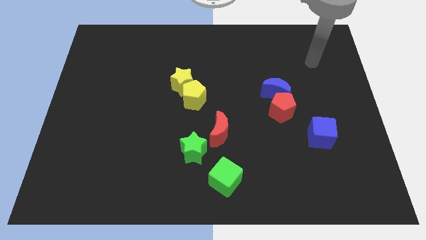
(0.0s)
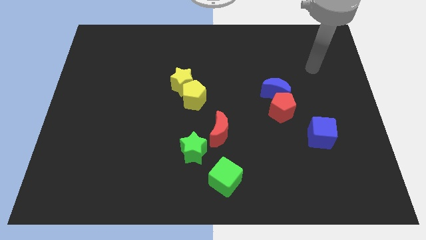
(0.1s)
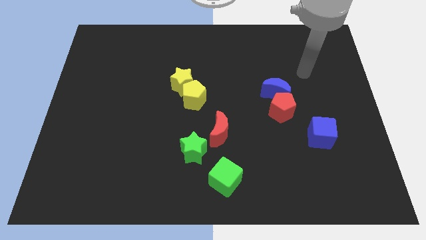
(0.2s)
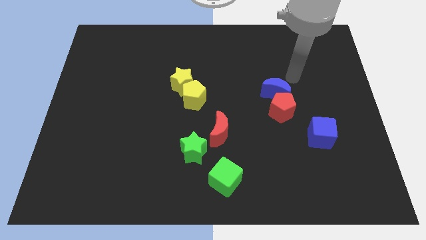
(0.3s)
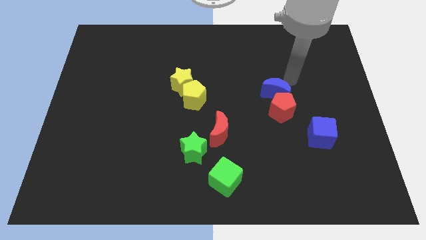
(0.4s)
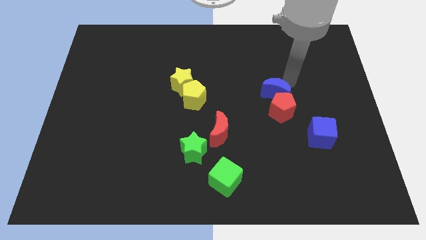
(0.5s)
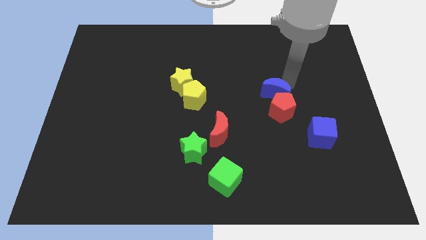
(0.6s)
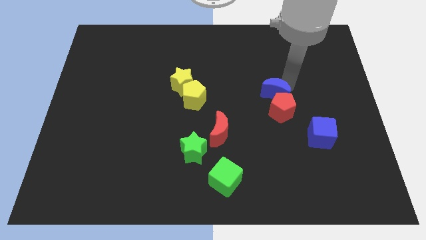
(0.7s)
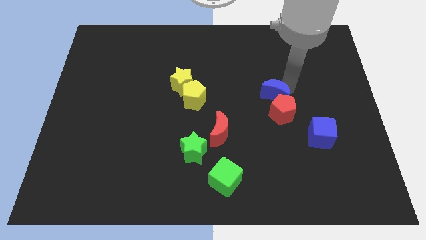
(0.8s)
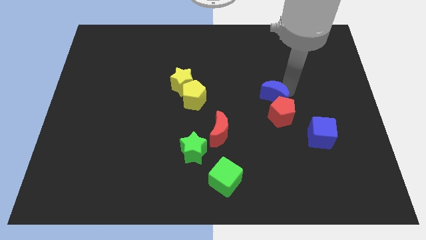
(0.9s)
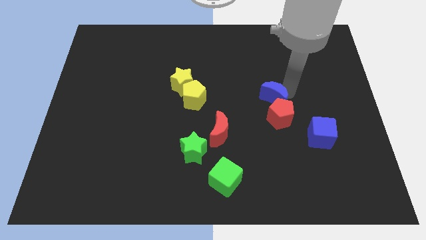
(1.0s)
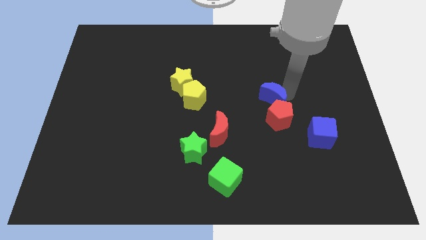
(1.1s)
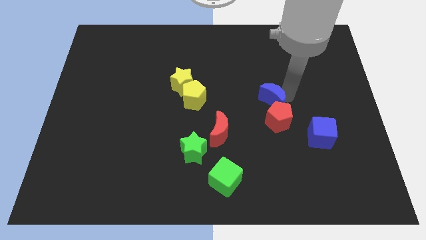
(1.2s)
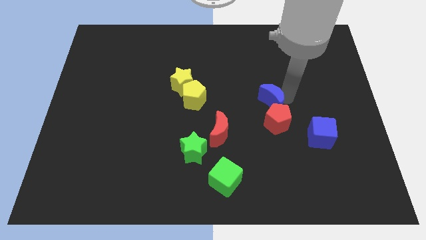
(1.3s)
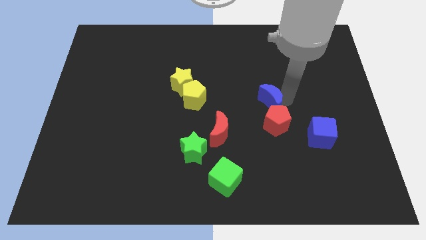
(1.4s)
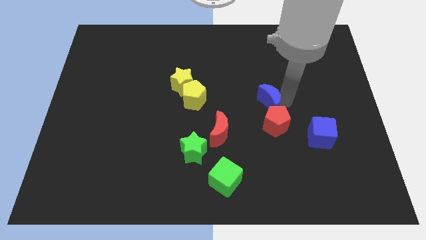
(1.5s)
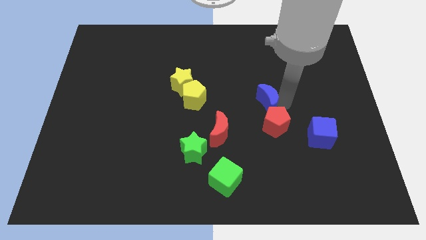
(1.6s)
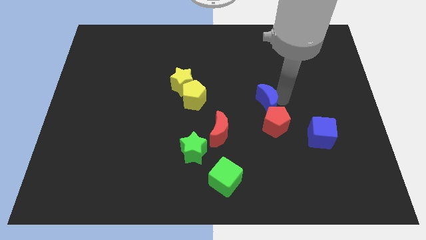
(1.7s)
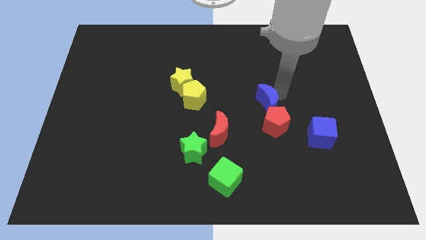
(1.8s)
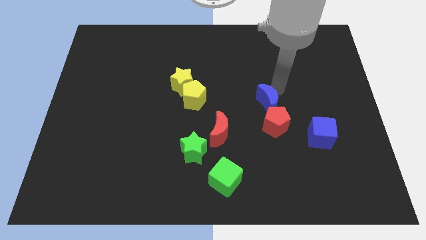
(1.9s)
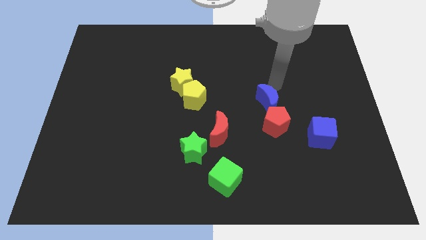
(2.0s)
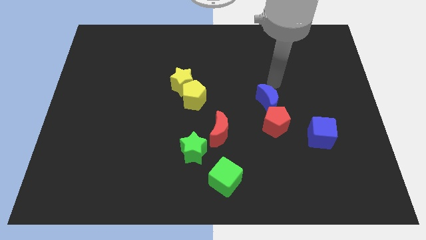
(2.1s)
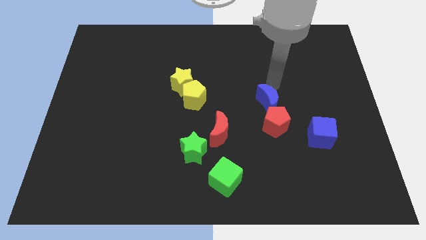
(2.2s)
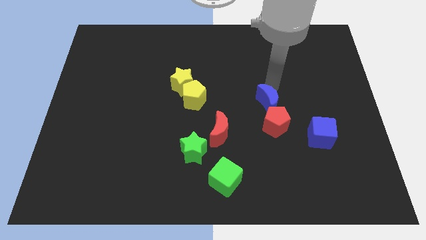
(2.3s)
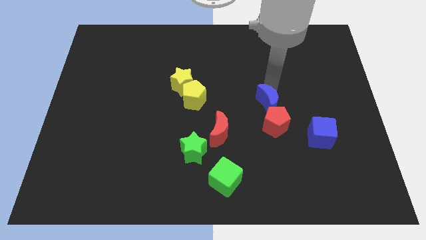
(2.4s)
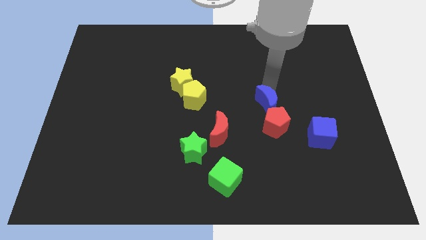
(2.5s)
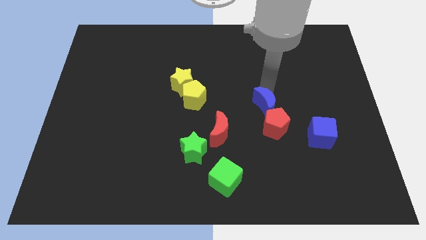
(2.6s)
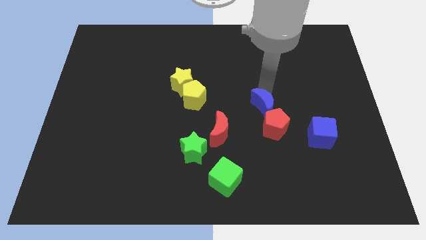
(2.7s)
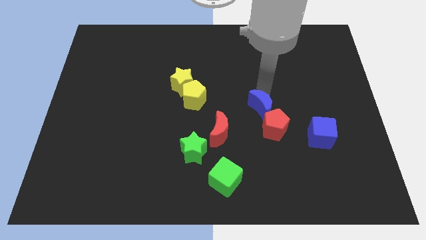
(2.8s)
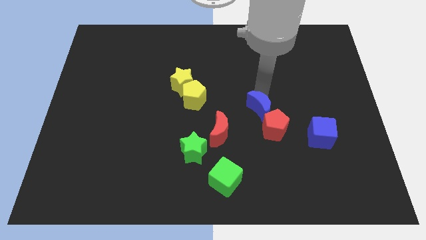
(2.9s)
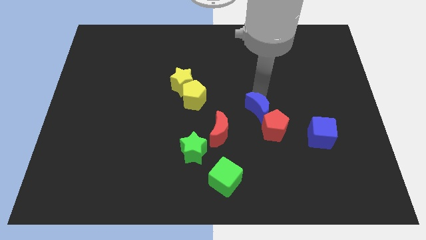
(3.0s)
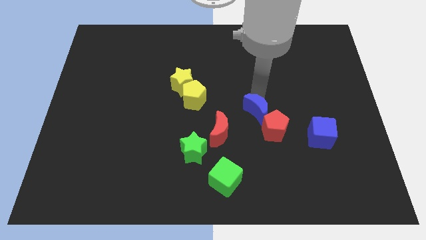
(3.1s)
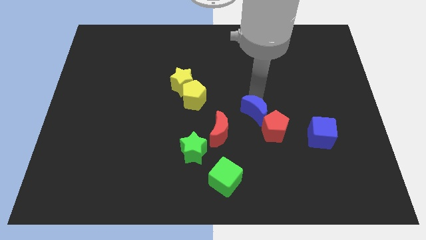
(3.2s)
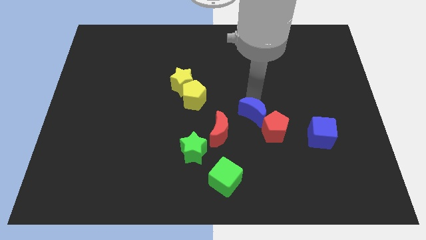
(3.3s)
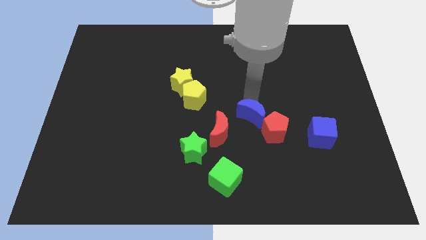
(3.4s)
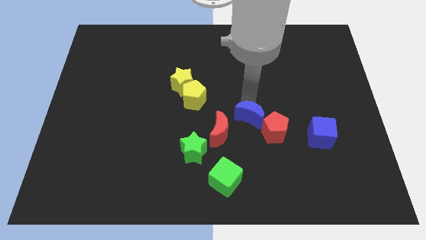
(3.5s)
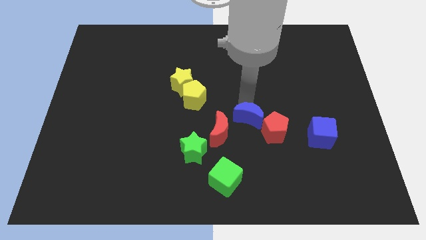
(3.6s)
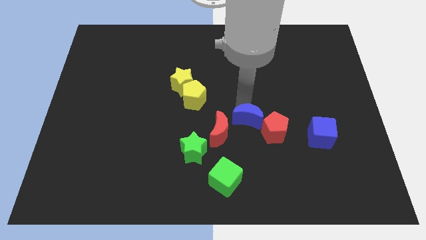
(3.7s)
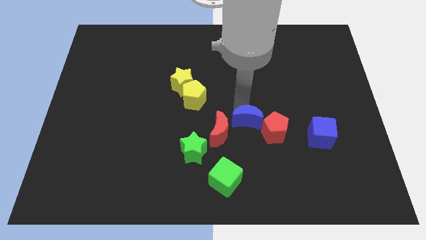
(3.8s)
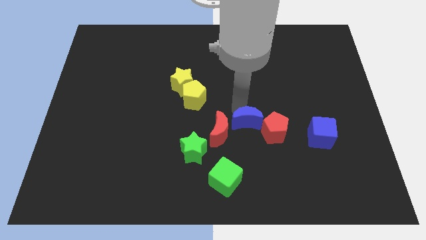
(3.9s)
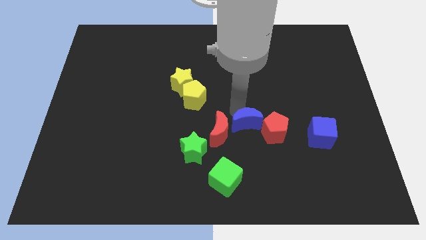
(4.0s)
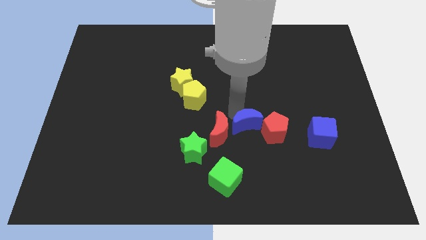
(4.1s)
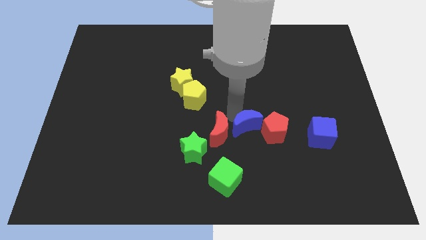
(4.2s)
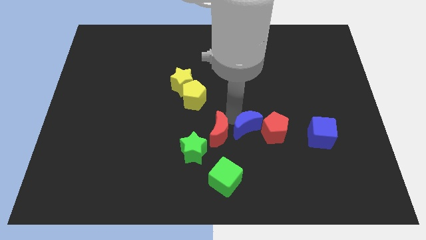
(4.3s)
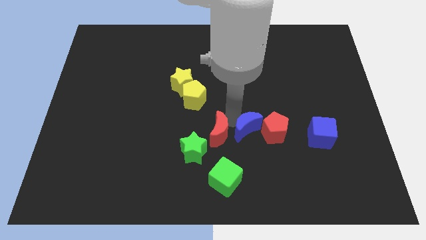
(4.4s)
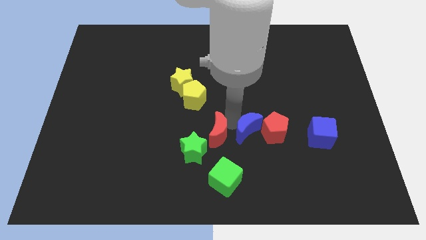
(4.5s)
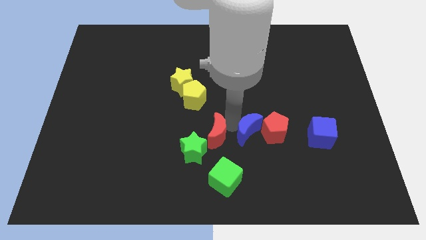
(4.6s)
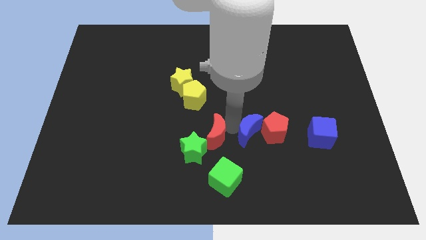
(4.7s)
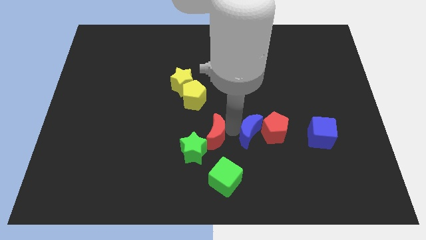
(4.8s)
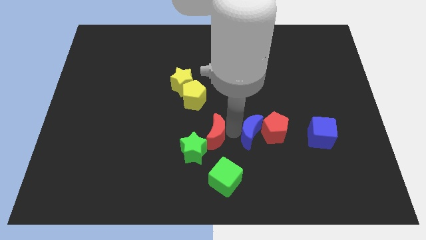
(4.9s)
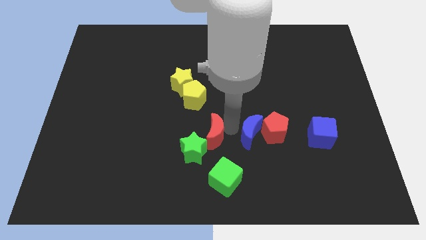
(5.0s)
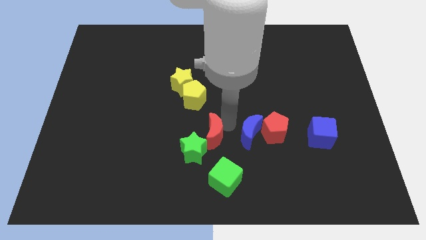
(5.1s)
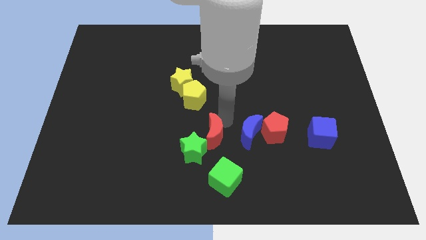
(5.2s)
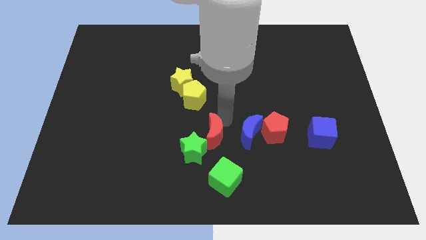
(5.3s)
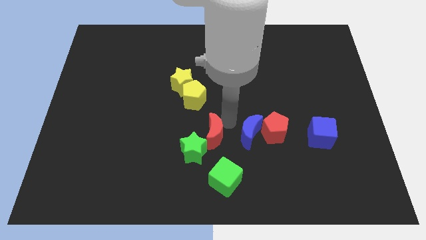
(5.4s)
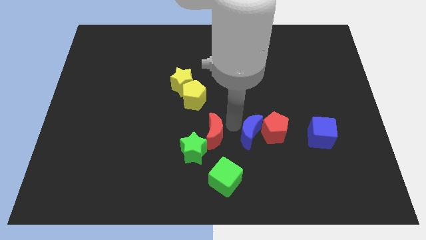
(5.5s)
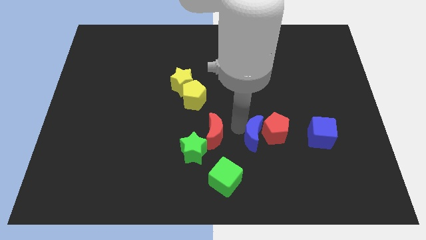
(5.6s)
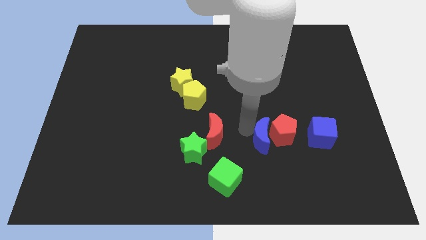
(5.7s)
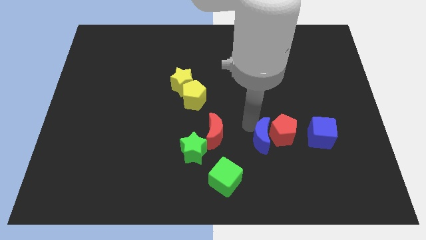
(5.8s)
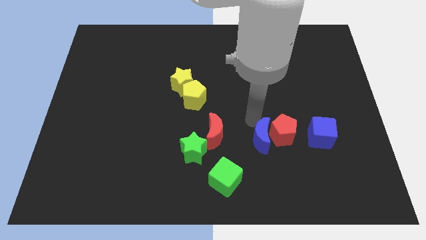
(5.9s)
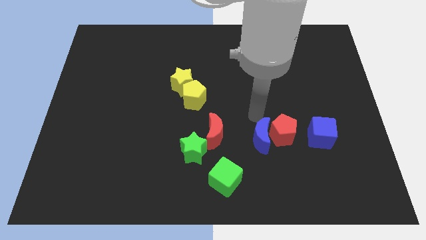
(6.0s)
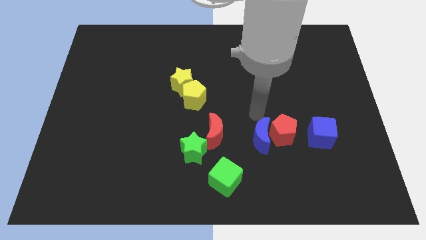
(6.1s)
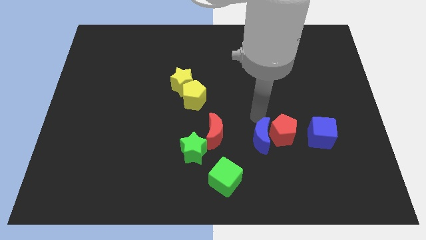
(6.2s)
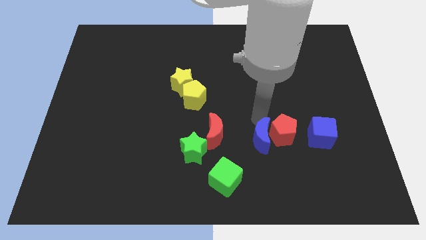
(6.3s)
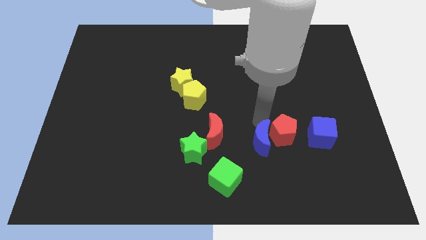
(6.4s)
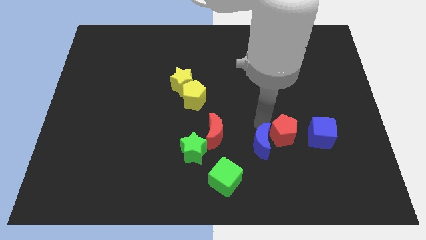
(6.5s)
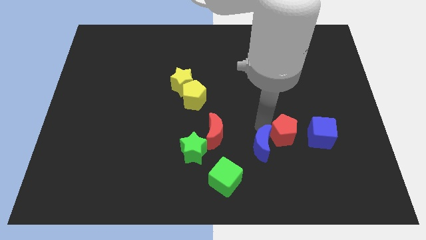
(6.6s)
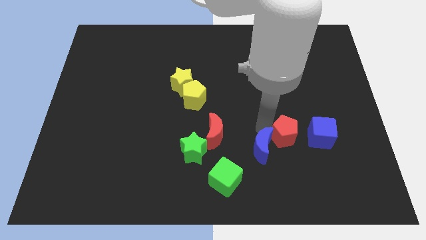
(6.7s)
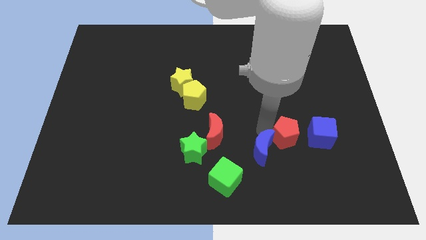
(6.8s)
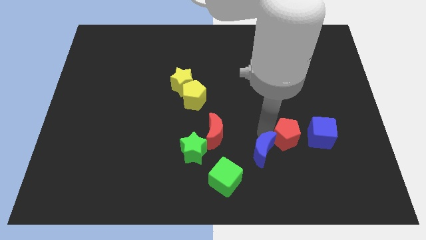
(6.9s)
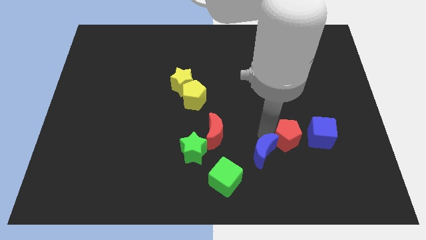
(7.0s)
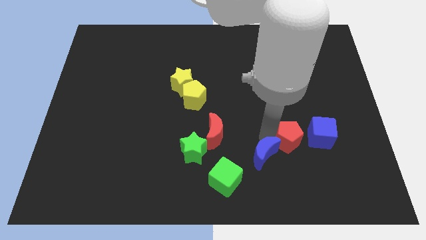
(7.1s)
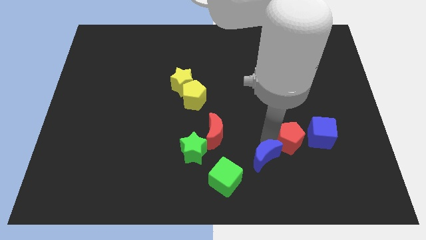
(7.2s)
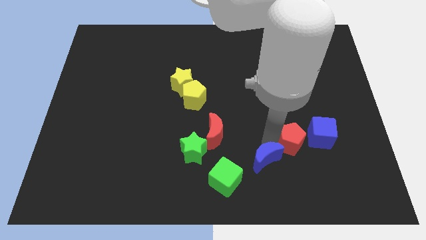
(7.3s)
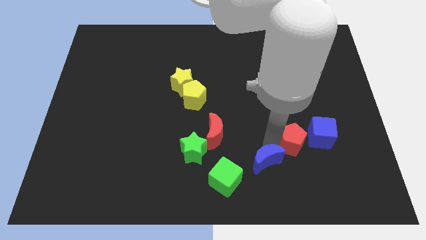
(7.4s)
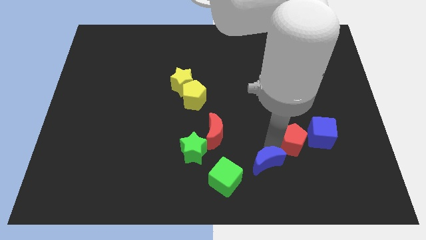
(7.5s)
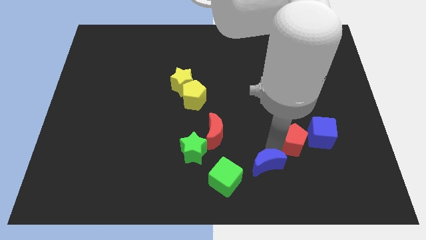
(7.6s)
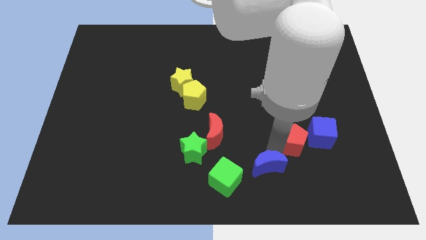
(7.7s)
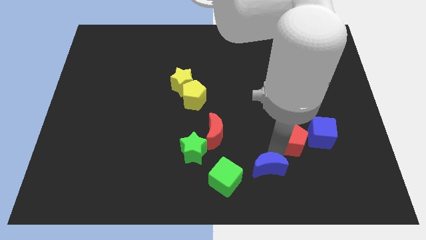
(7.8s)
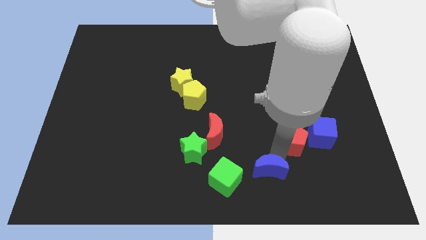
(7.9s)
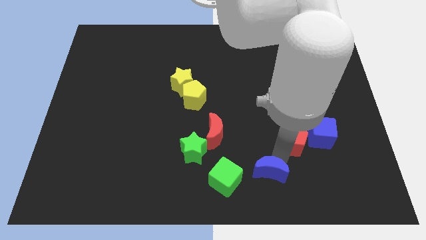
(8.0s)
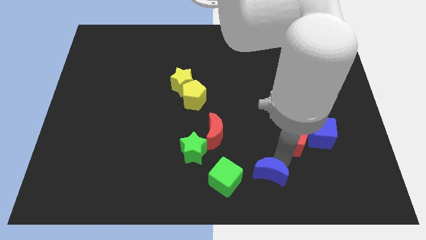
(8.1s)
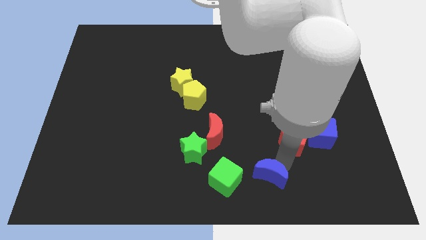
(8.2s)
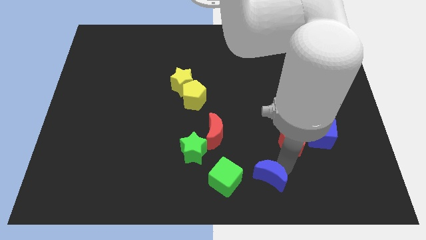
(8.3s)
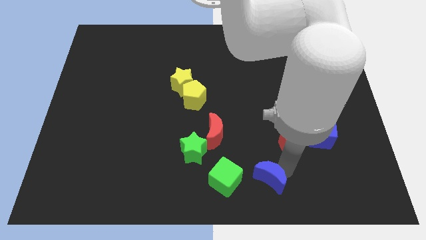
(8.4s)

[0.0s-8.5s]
push the blue moon to the bottom side
